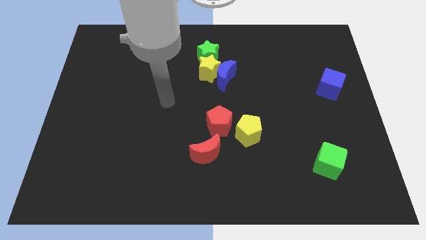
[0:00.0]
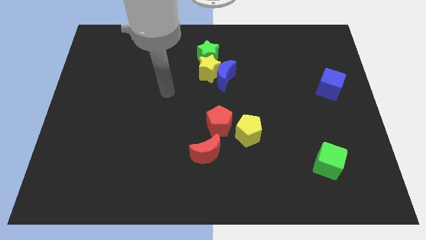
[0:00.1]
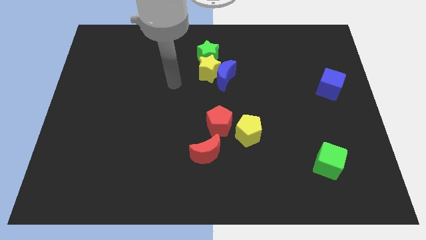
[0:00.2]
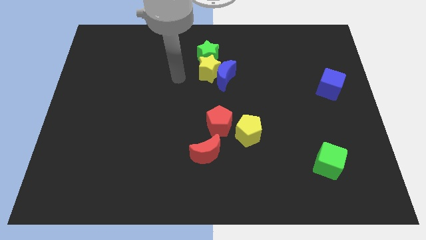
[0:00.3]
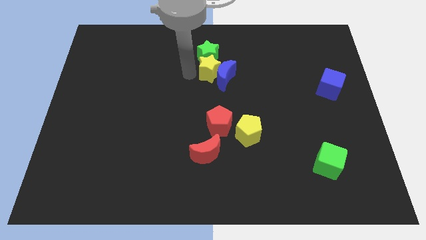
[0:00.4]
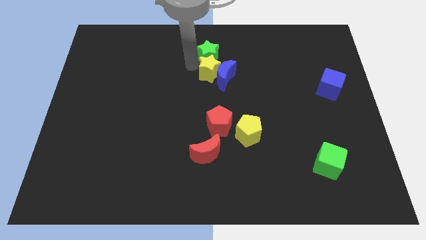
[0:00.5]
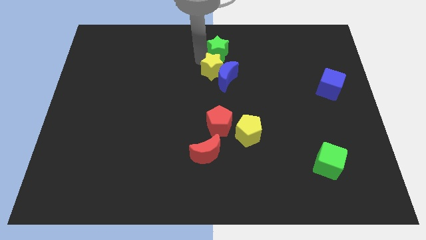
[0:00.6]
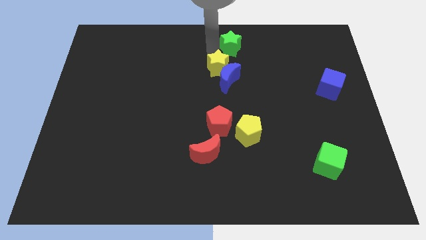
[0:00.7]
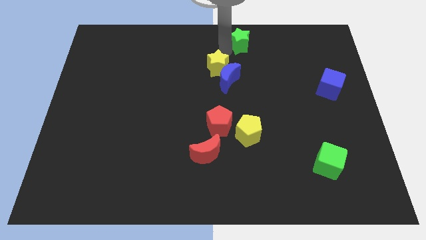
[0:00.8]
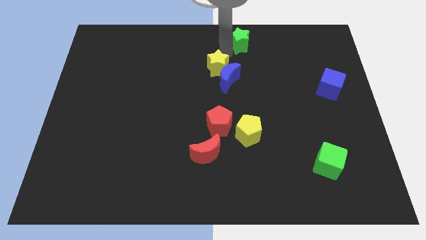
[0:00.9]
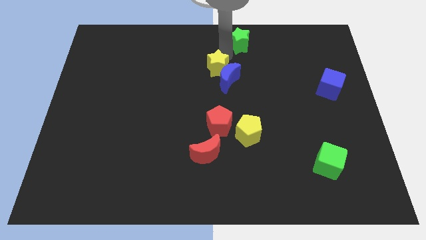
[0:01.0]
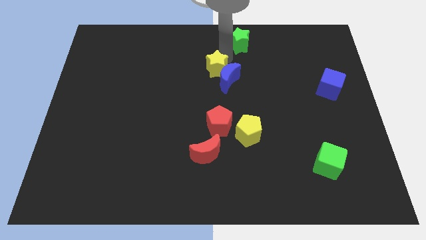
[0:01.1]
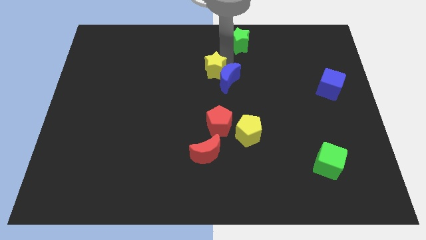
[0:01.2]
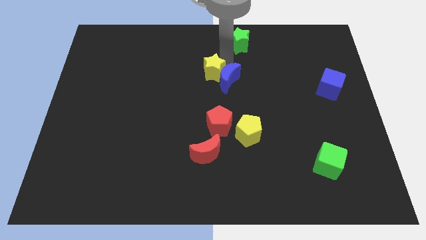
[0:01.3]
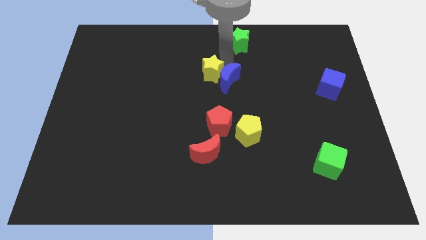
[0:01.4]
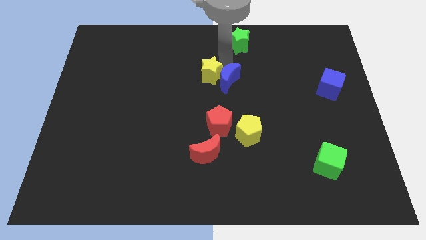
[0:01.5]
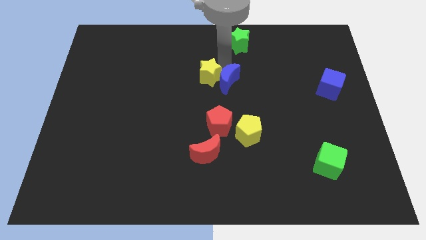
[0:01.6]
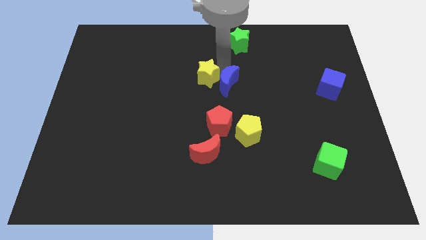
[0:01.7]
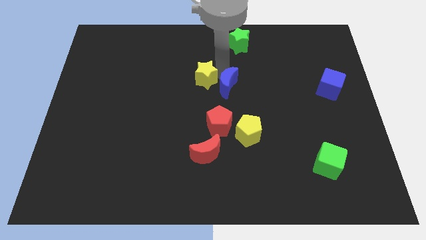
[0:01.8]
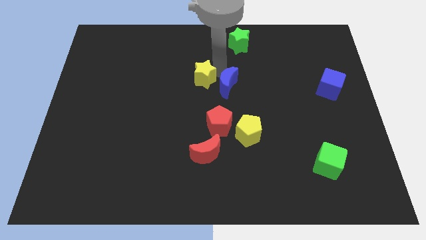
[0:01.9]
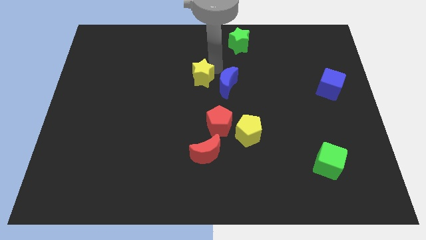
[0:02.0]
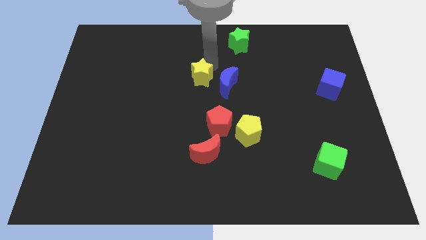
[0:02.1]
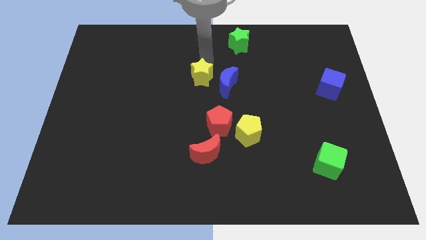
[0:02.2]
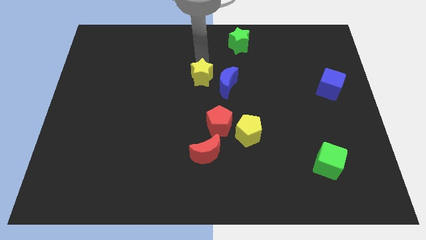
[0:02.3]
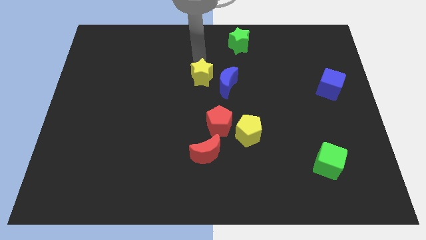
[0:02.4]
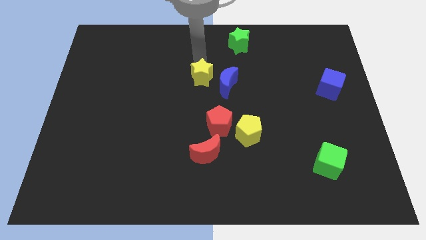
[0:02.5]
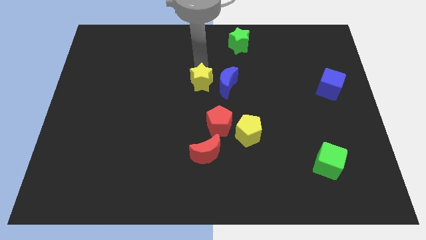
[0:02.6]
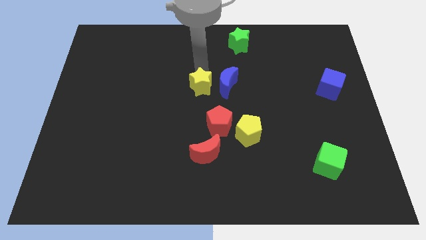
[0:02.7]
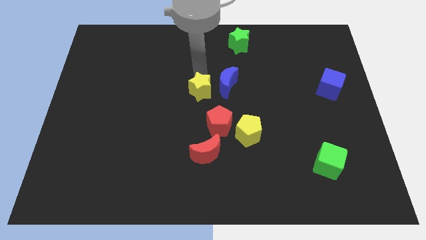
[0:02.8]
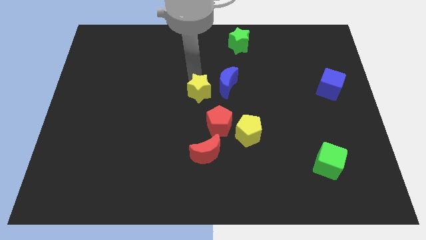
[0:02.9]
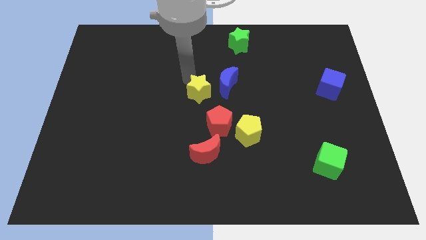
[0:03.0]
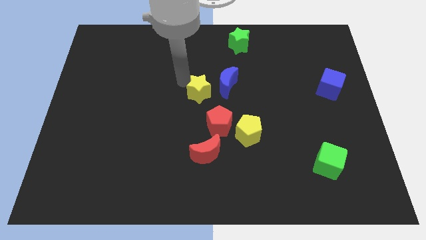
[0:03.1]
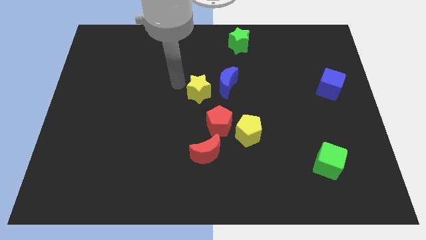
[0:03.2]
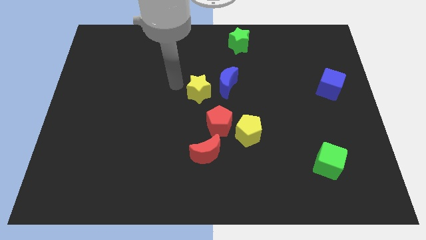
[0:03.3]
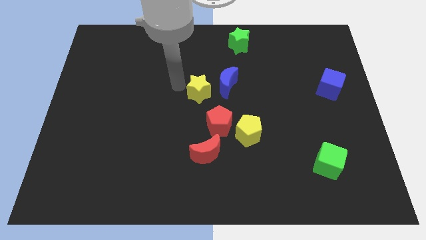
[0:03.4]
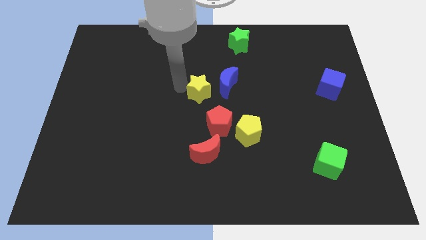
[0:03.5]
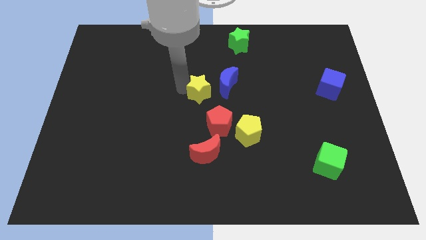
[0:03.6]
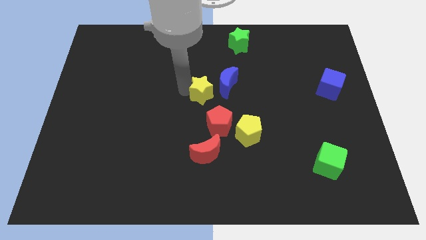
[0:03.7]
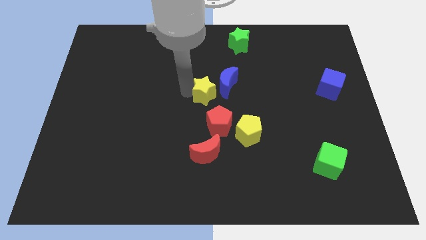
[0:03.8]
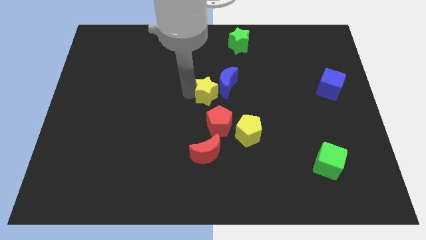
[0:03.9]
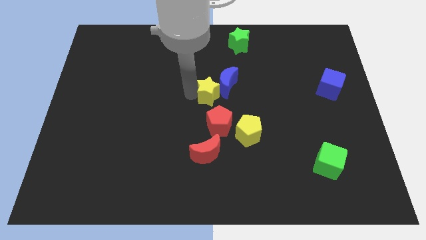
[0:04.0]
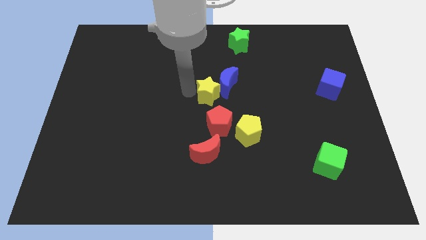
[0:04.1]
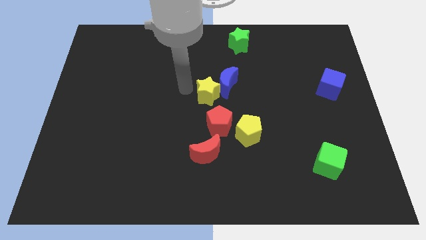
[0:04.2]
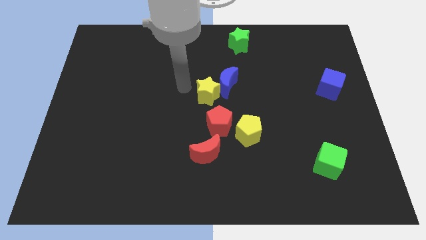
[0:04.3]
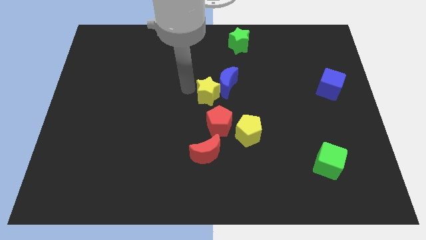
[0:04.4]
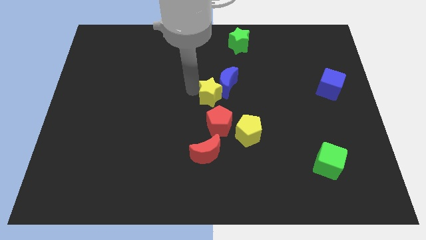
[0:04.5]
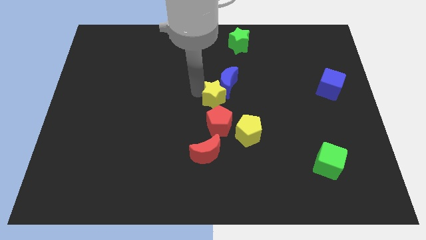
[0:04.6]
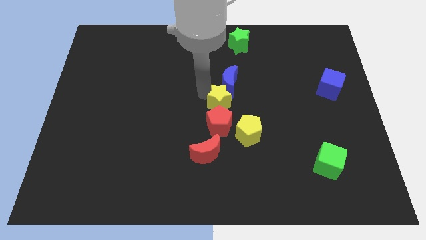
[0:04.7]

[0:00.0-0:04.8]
push the yellow star downwards and then right somewhat

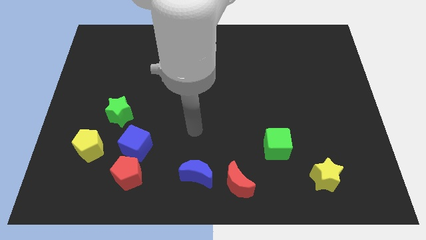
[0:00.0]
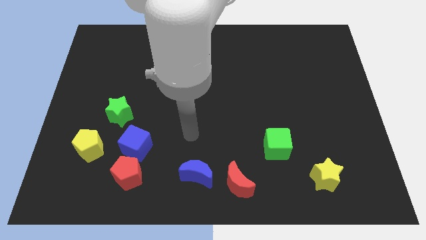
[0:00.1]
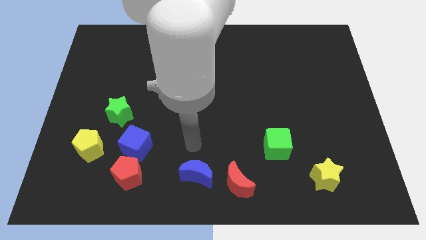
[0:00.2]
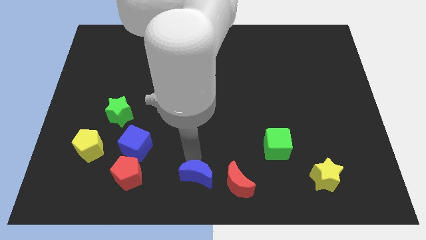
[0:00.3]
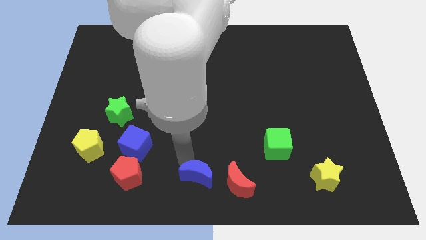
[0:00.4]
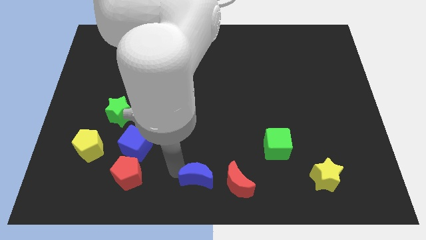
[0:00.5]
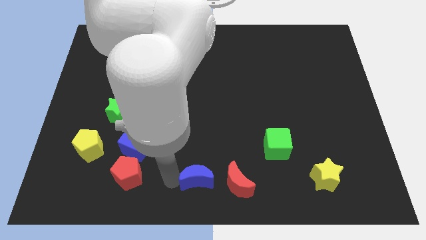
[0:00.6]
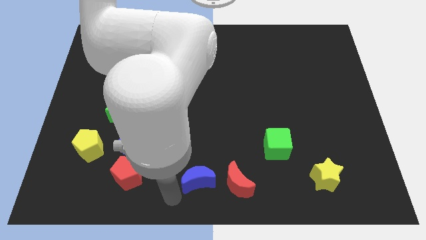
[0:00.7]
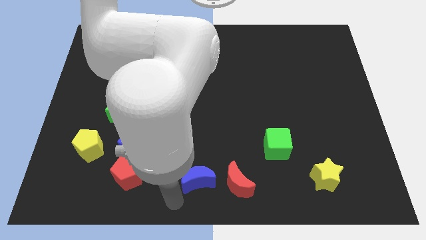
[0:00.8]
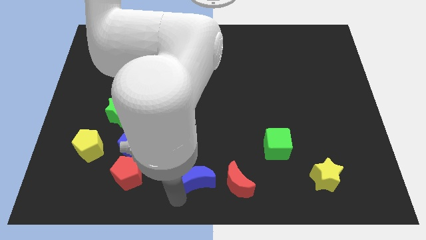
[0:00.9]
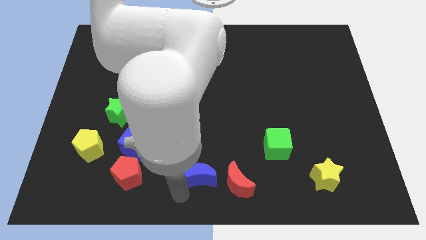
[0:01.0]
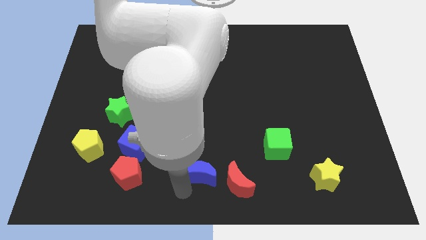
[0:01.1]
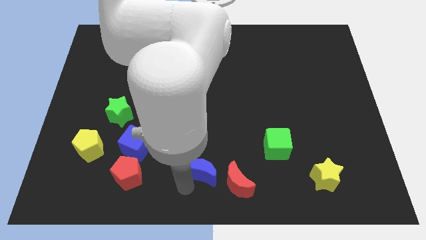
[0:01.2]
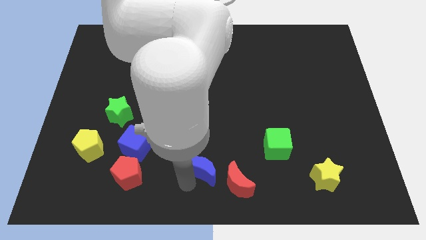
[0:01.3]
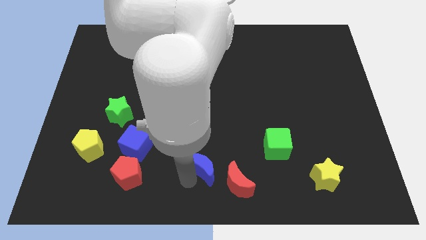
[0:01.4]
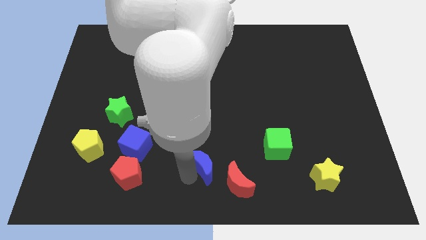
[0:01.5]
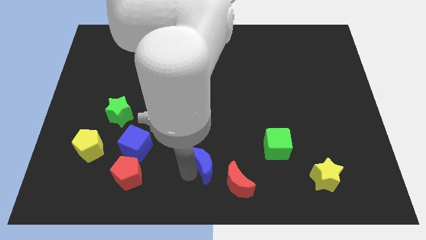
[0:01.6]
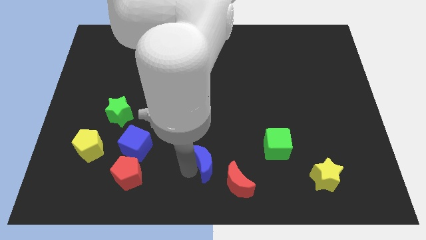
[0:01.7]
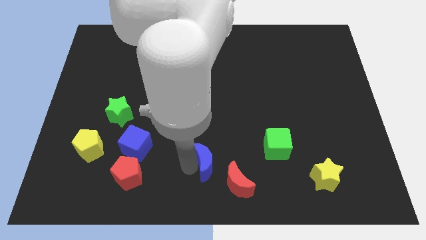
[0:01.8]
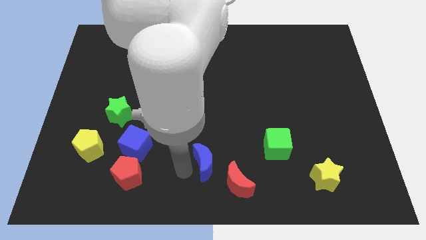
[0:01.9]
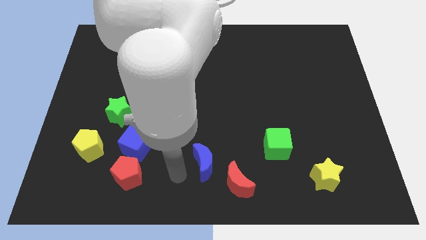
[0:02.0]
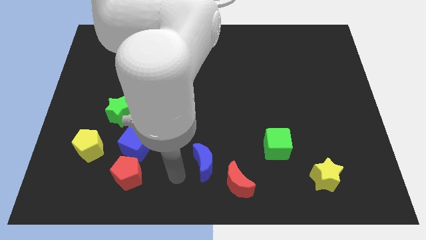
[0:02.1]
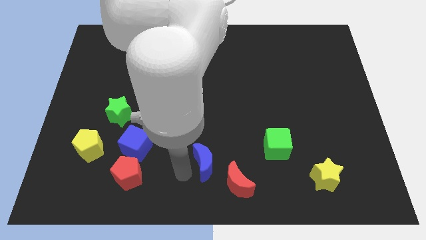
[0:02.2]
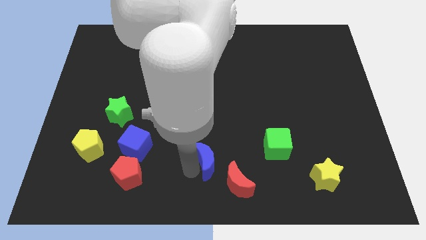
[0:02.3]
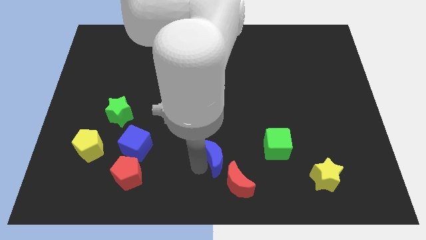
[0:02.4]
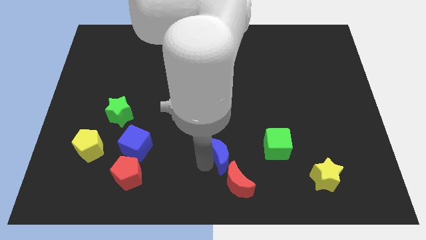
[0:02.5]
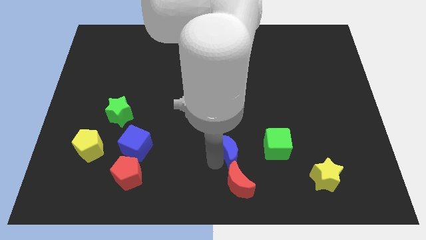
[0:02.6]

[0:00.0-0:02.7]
slide the blue moon a little upwards and right

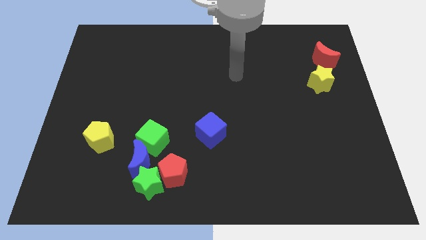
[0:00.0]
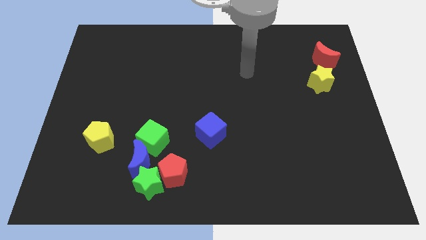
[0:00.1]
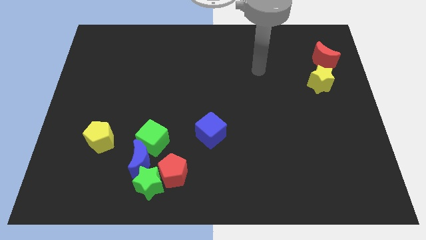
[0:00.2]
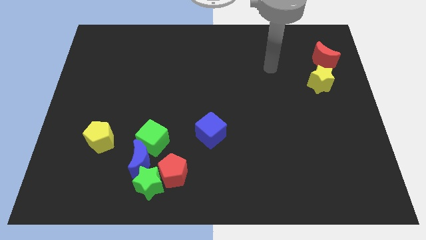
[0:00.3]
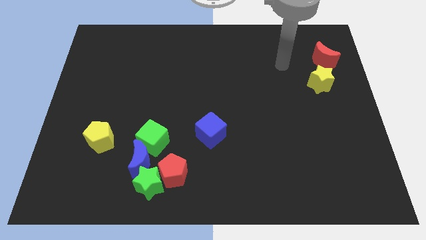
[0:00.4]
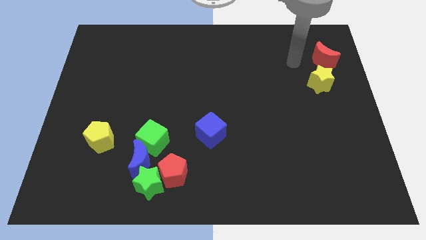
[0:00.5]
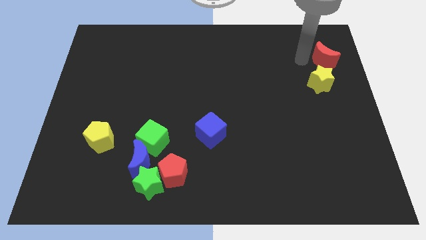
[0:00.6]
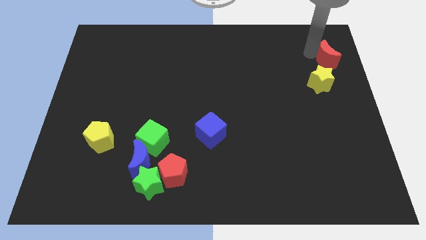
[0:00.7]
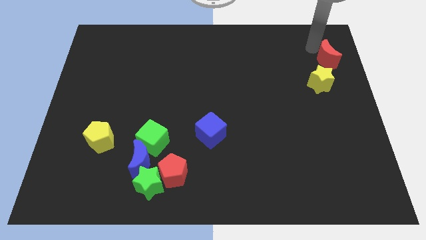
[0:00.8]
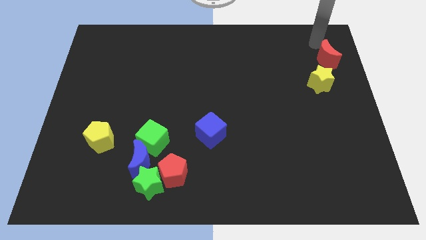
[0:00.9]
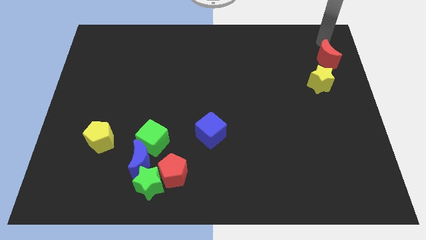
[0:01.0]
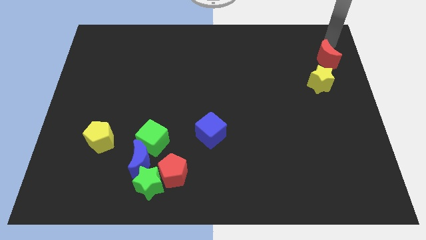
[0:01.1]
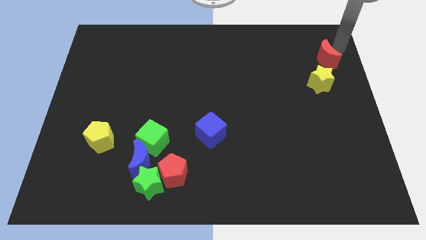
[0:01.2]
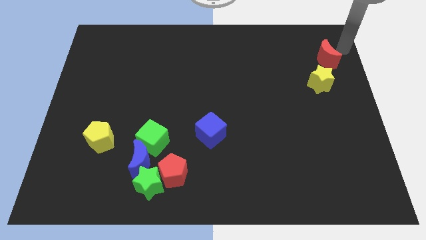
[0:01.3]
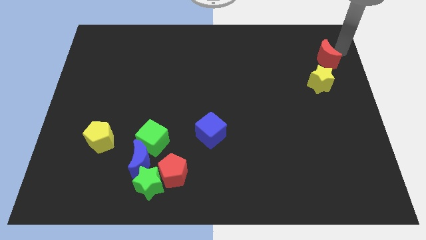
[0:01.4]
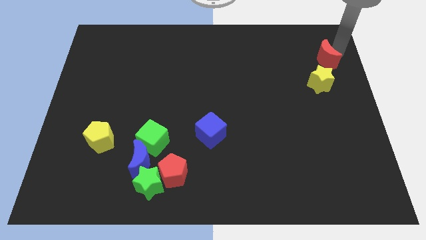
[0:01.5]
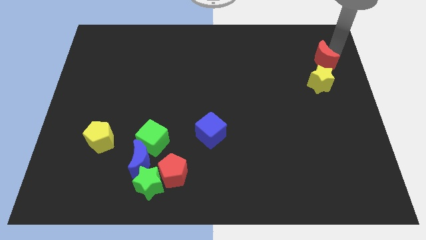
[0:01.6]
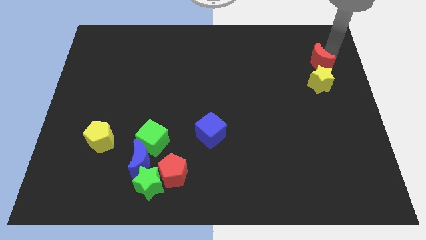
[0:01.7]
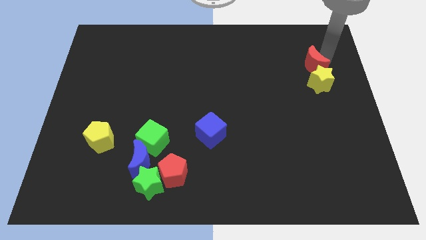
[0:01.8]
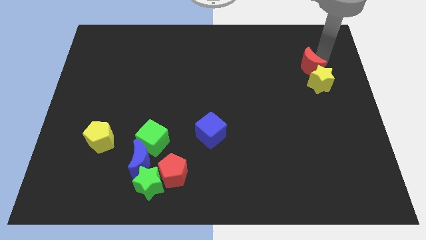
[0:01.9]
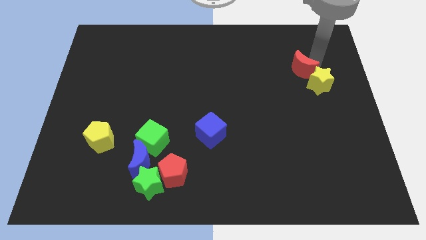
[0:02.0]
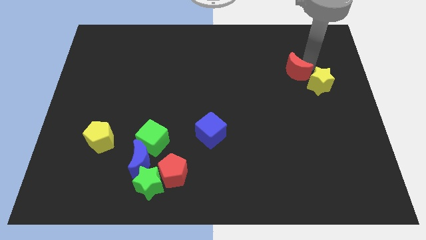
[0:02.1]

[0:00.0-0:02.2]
slightly slide the red moon downwards and then to the left
